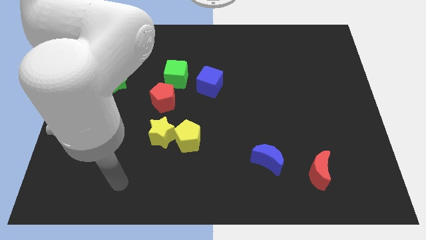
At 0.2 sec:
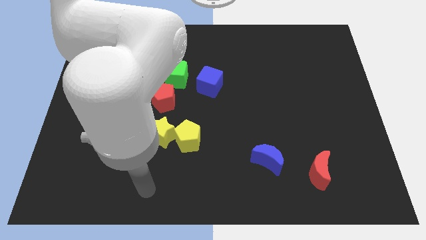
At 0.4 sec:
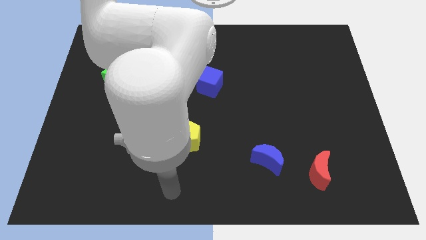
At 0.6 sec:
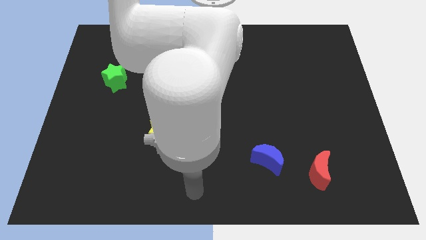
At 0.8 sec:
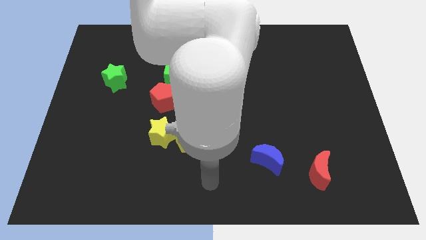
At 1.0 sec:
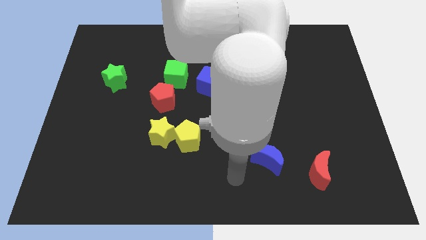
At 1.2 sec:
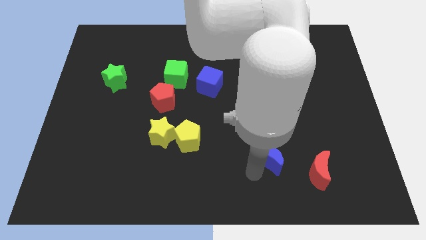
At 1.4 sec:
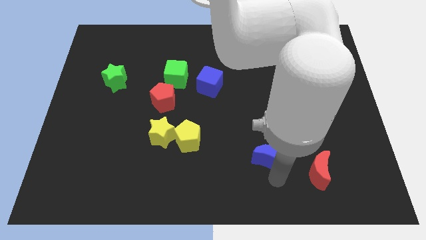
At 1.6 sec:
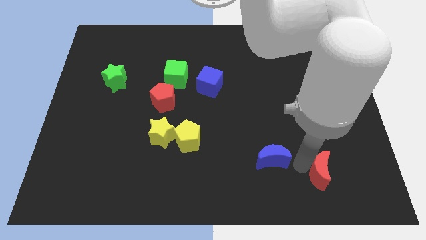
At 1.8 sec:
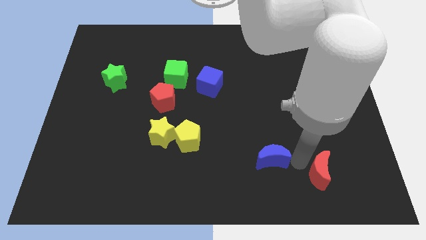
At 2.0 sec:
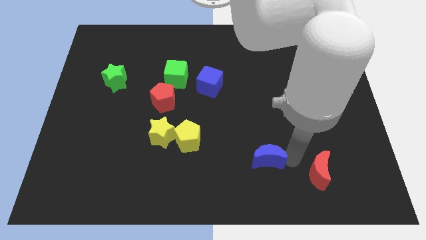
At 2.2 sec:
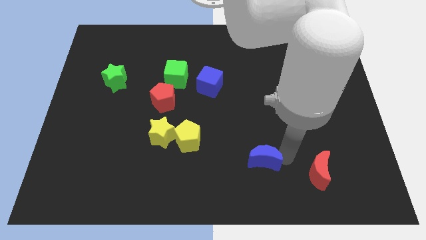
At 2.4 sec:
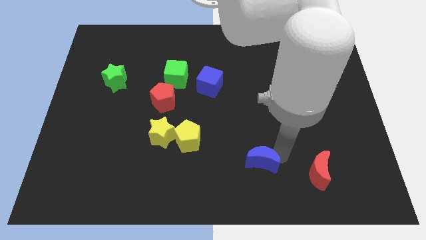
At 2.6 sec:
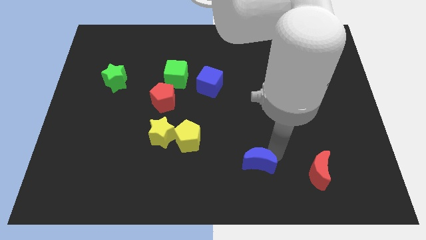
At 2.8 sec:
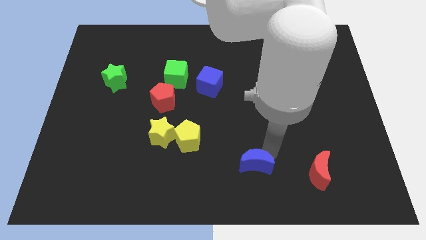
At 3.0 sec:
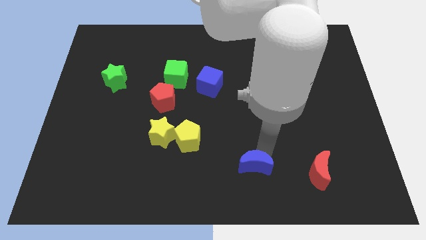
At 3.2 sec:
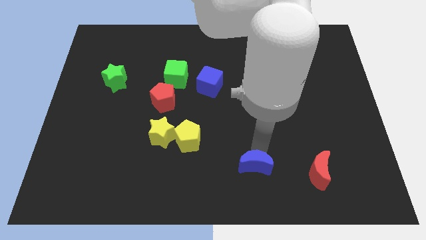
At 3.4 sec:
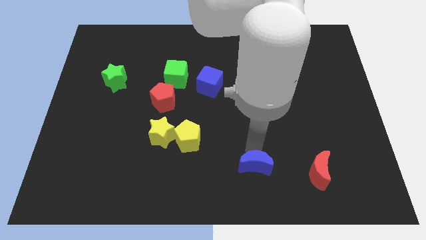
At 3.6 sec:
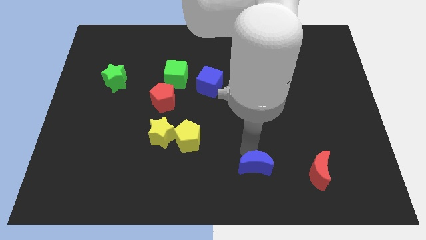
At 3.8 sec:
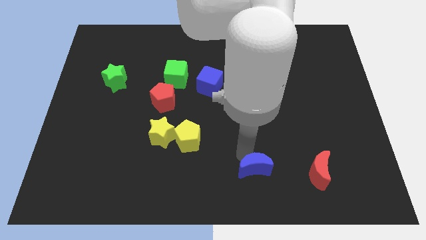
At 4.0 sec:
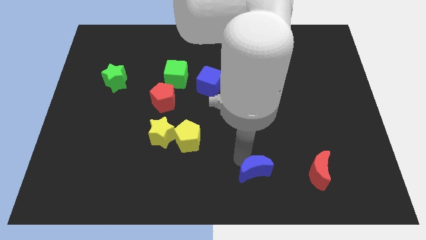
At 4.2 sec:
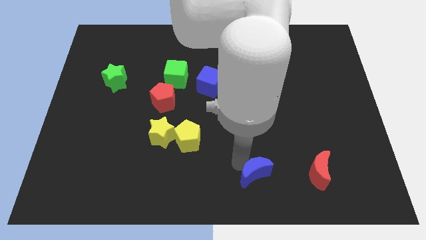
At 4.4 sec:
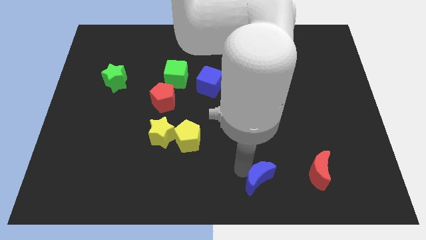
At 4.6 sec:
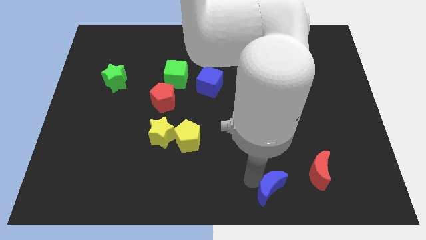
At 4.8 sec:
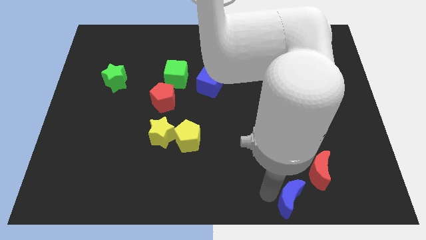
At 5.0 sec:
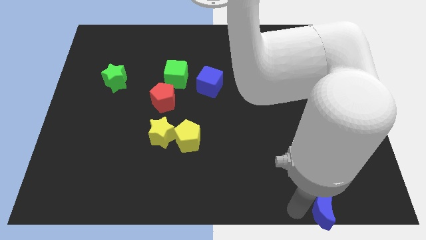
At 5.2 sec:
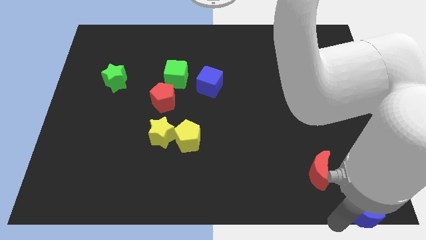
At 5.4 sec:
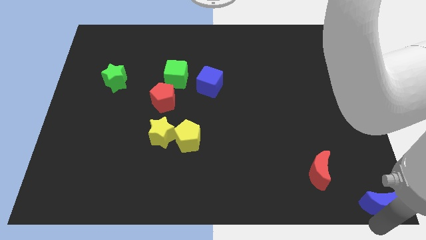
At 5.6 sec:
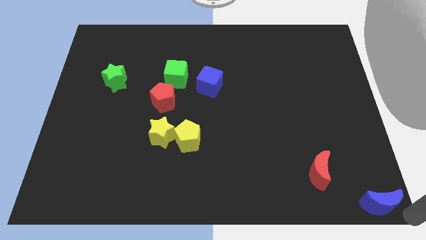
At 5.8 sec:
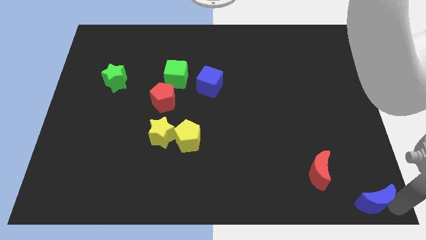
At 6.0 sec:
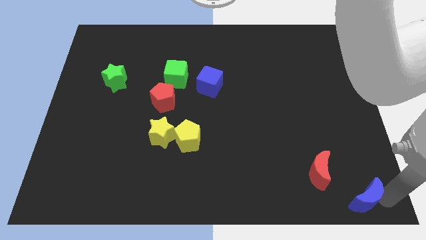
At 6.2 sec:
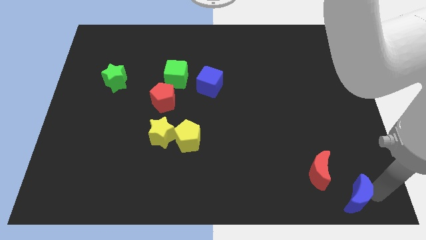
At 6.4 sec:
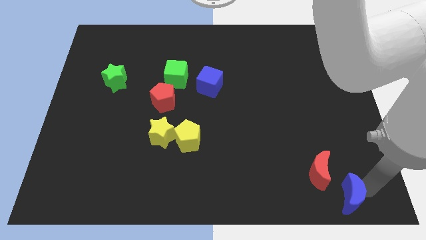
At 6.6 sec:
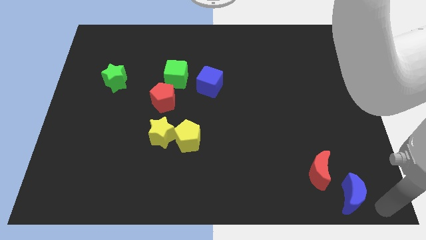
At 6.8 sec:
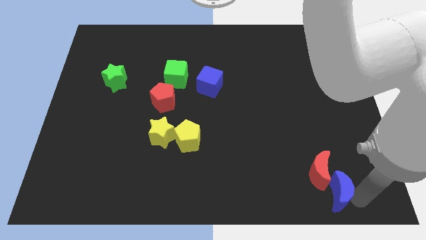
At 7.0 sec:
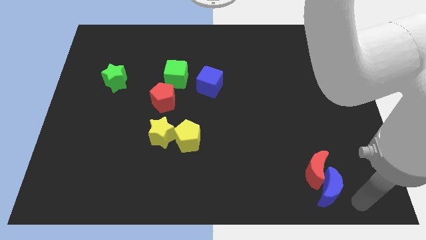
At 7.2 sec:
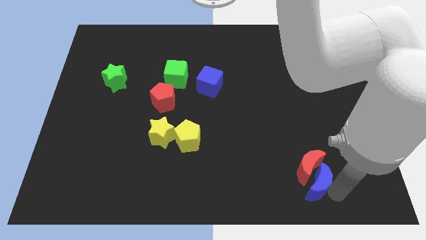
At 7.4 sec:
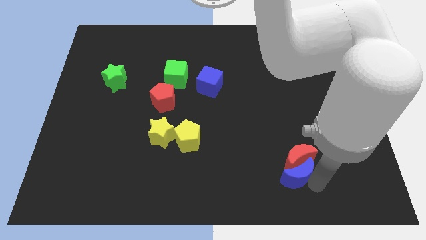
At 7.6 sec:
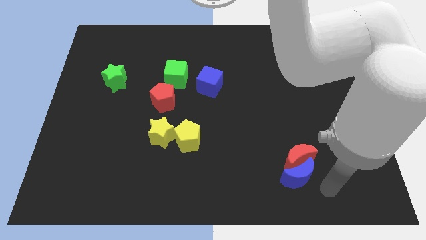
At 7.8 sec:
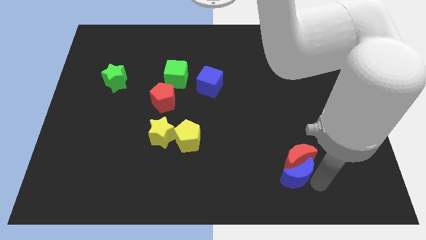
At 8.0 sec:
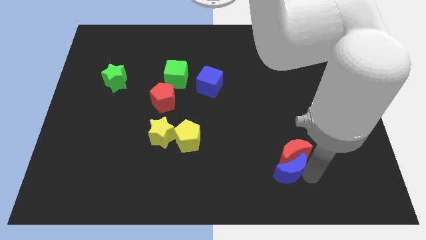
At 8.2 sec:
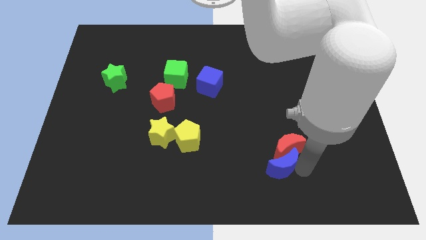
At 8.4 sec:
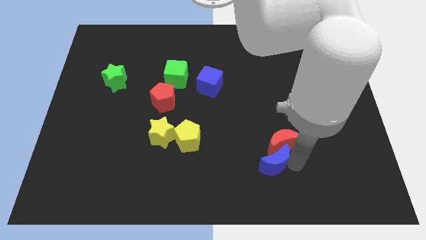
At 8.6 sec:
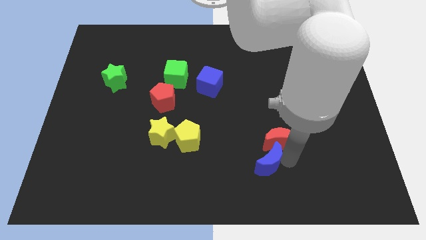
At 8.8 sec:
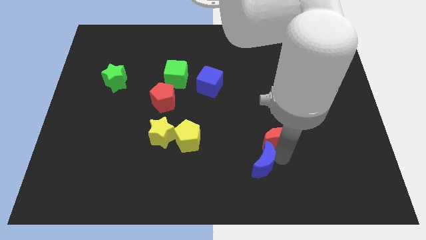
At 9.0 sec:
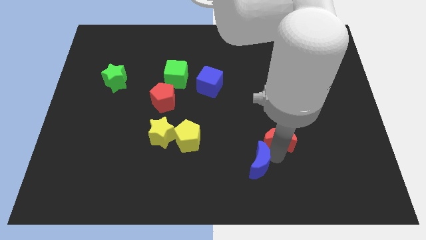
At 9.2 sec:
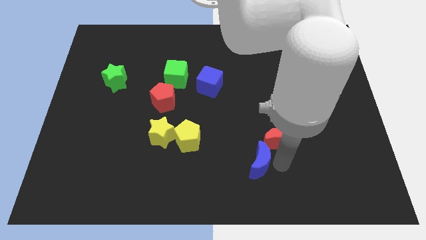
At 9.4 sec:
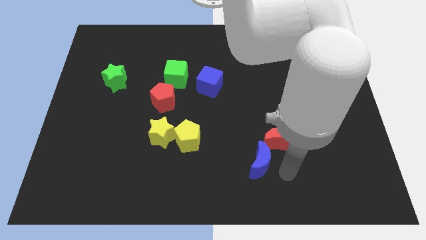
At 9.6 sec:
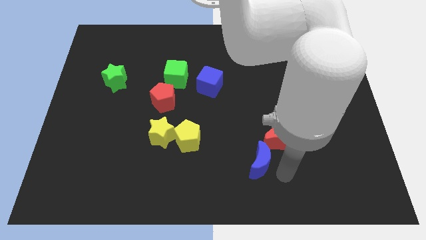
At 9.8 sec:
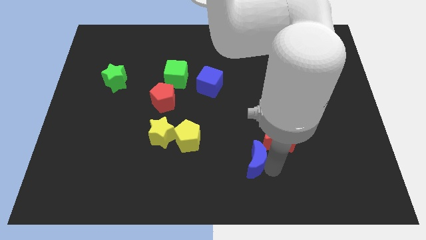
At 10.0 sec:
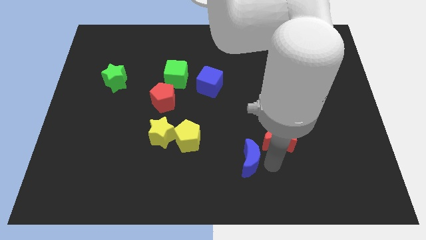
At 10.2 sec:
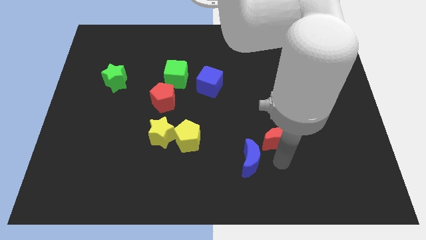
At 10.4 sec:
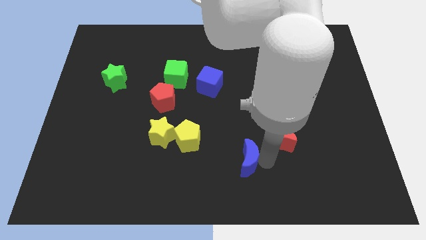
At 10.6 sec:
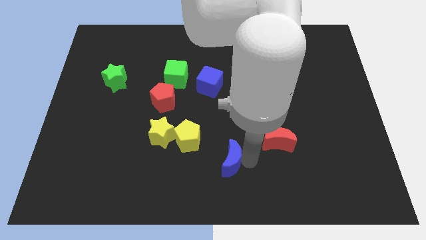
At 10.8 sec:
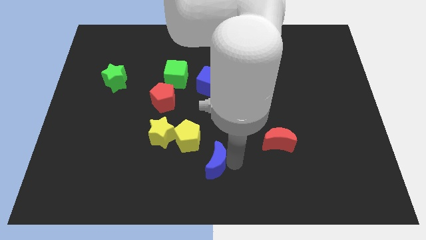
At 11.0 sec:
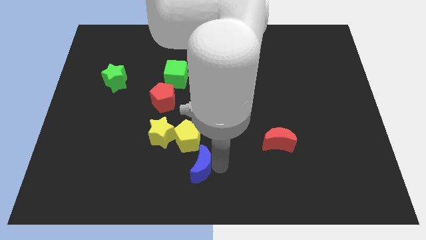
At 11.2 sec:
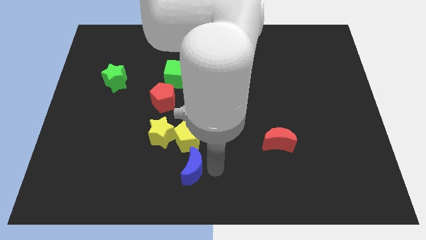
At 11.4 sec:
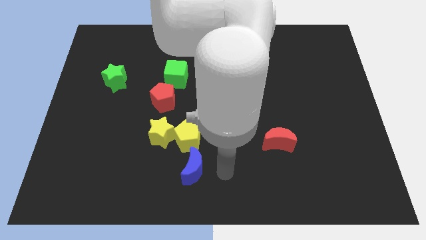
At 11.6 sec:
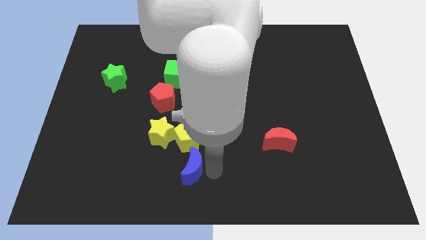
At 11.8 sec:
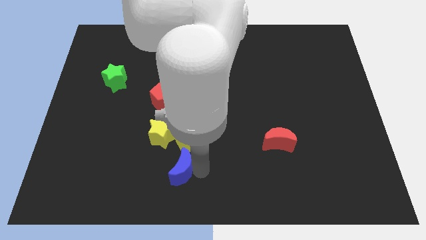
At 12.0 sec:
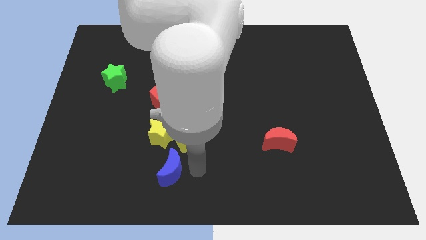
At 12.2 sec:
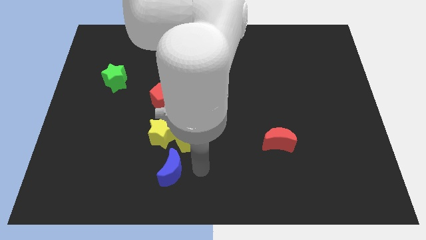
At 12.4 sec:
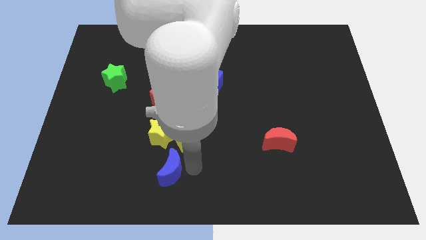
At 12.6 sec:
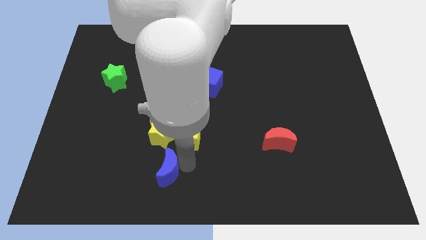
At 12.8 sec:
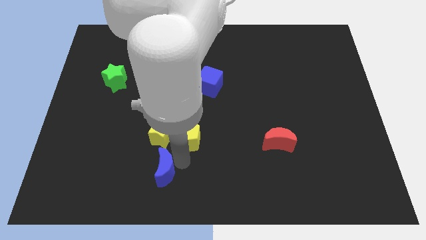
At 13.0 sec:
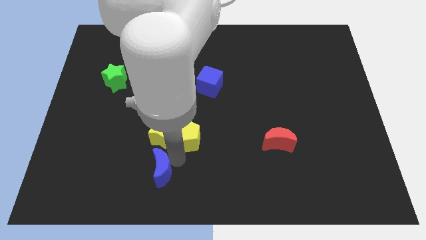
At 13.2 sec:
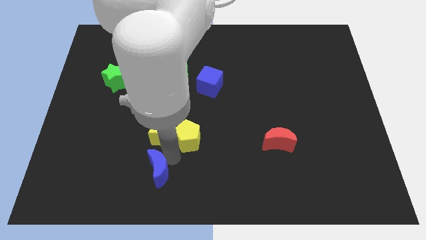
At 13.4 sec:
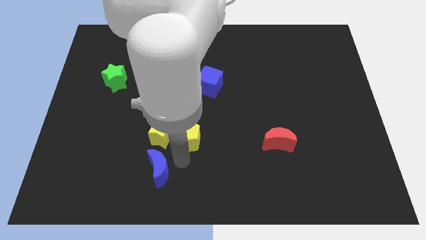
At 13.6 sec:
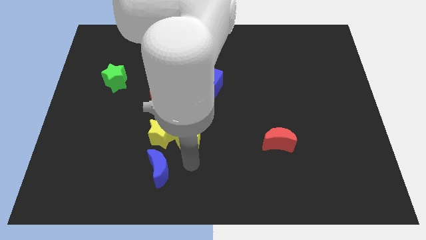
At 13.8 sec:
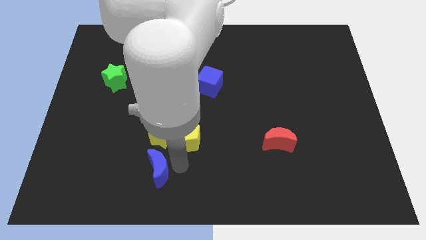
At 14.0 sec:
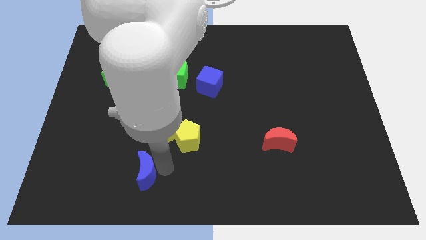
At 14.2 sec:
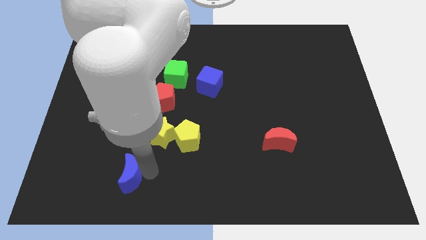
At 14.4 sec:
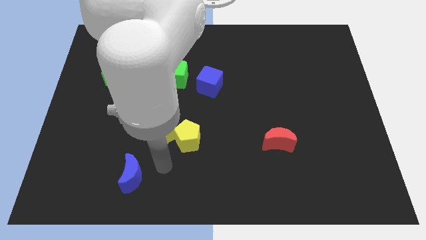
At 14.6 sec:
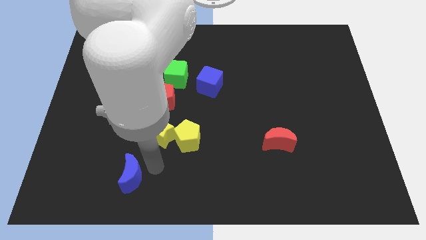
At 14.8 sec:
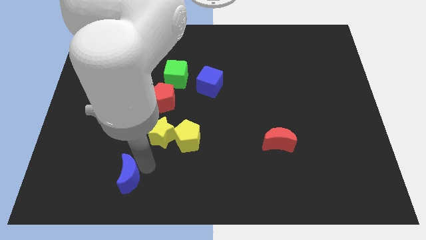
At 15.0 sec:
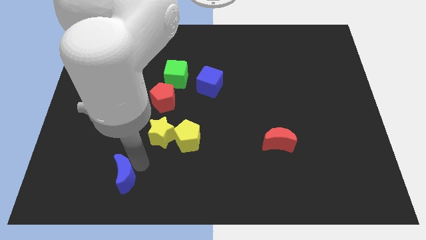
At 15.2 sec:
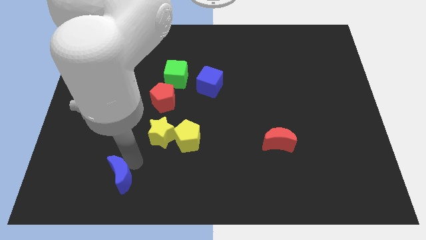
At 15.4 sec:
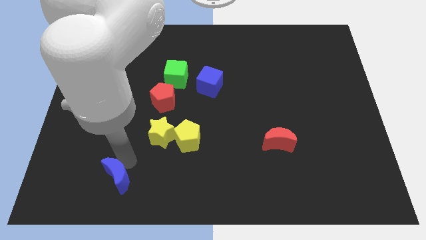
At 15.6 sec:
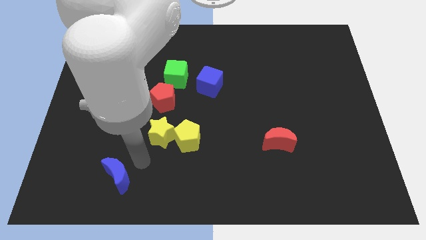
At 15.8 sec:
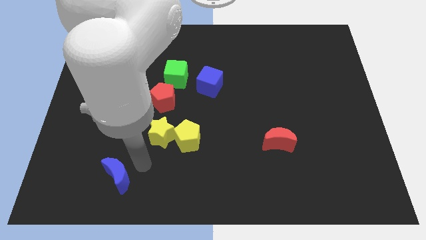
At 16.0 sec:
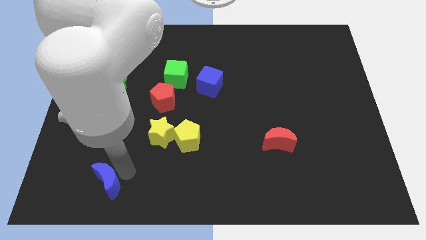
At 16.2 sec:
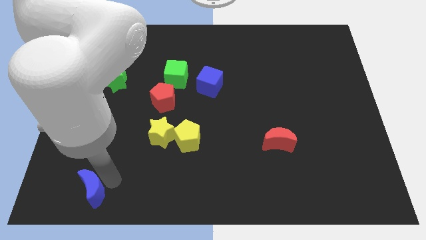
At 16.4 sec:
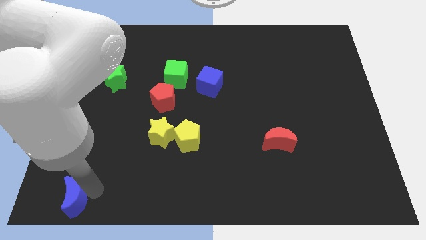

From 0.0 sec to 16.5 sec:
slide the blue moon to the lower left corner
